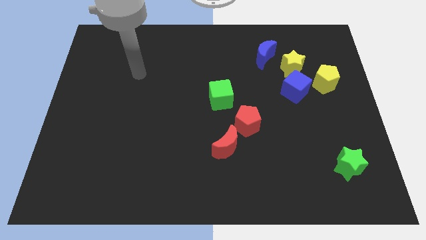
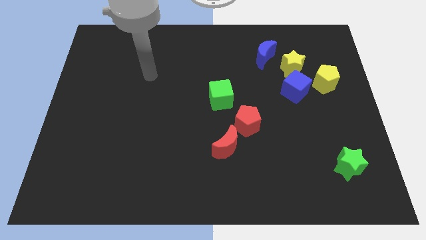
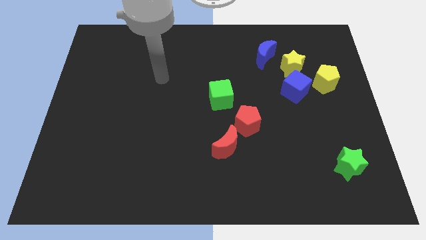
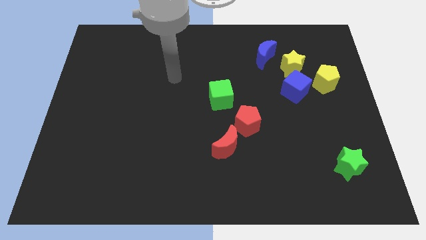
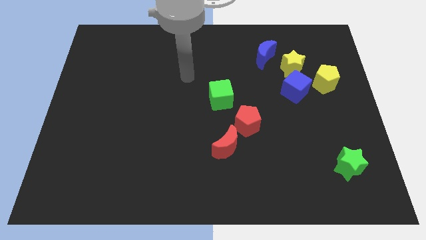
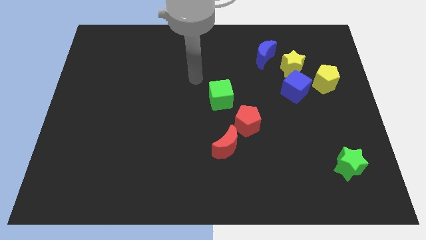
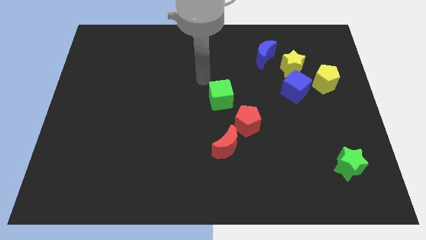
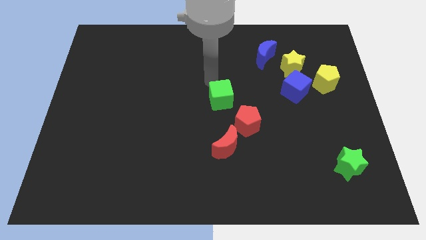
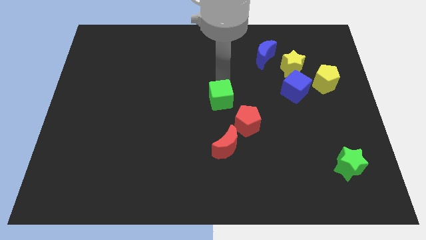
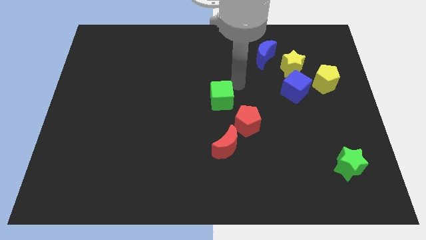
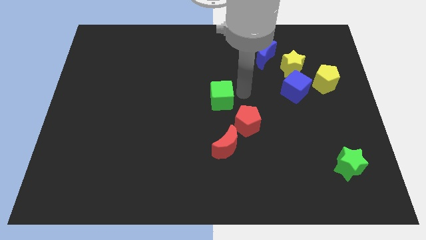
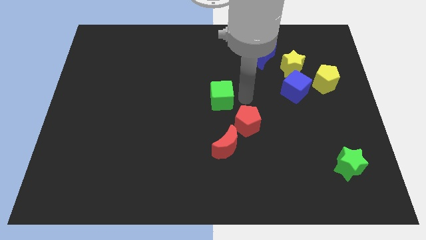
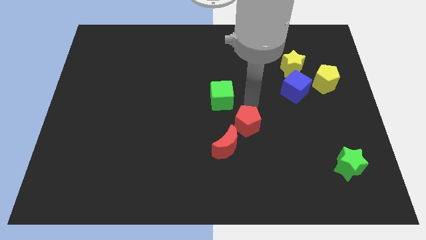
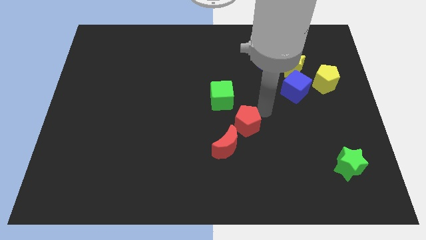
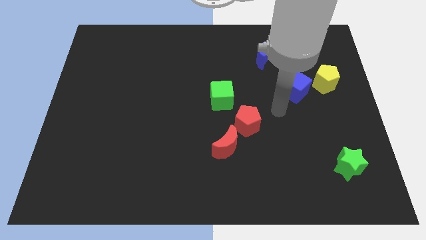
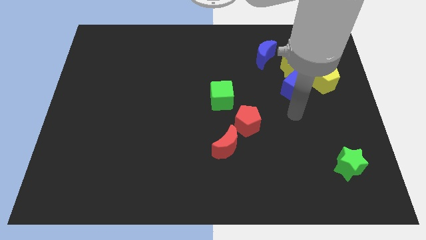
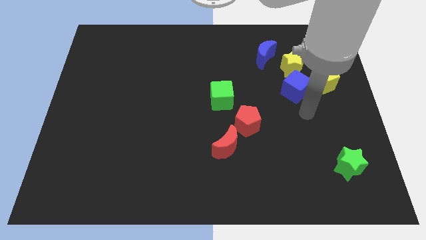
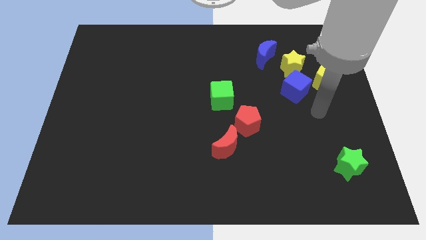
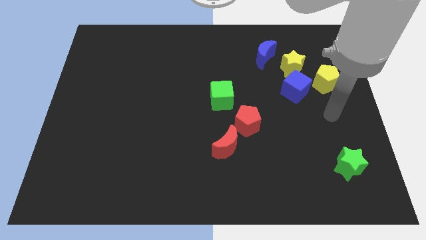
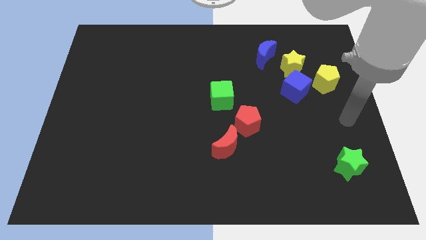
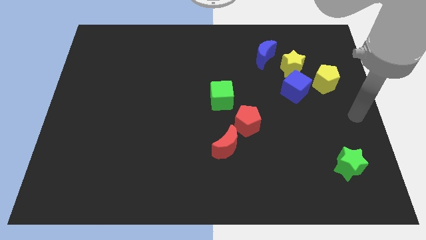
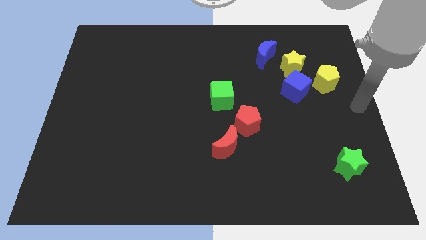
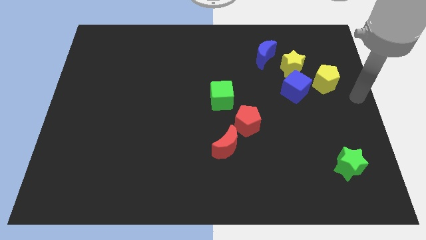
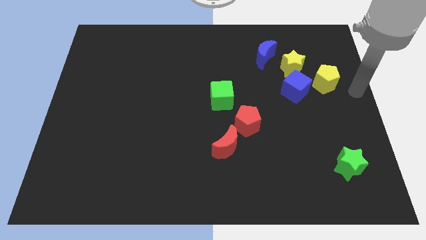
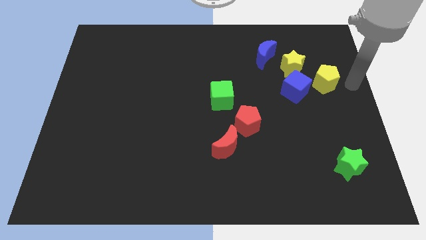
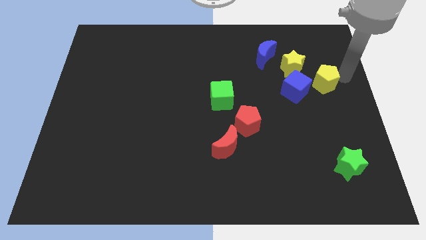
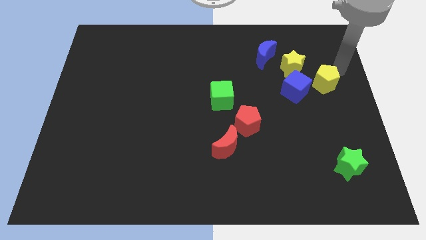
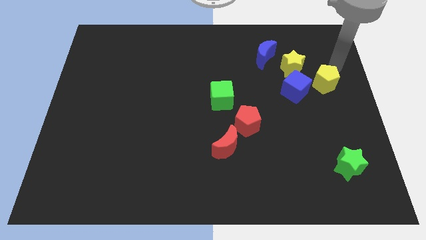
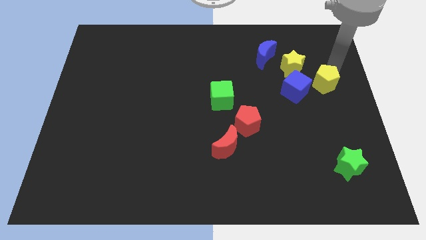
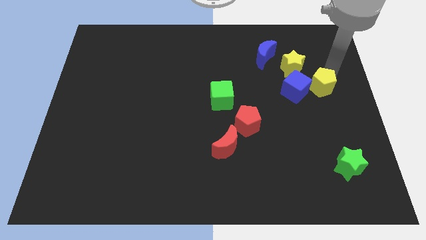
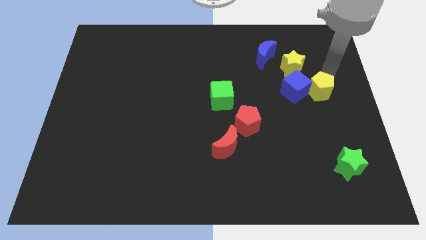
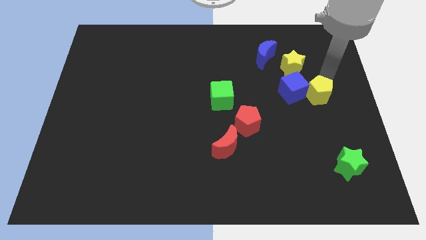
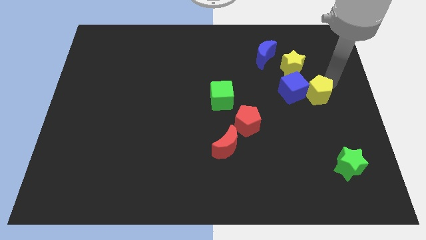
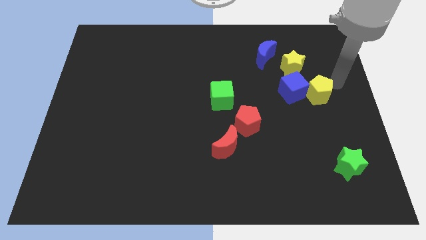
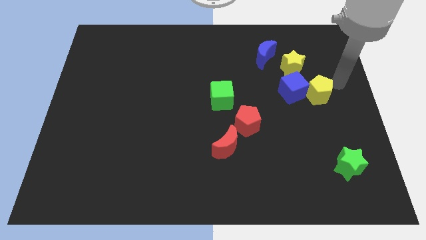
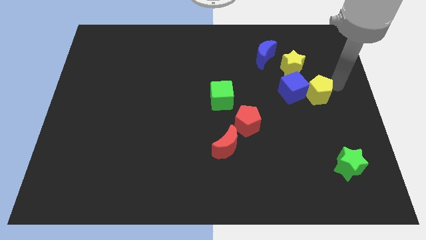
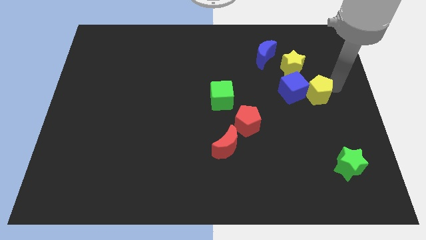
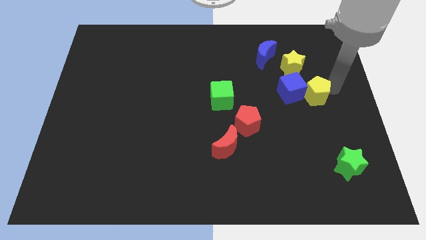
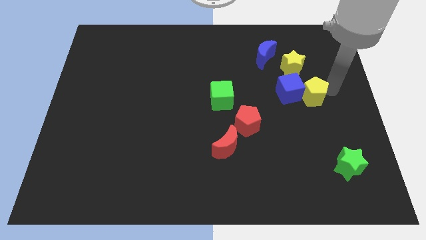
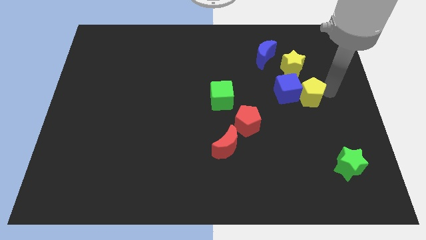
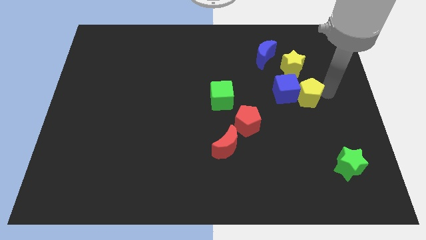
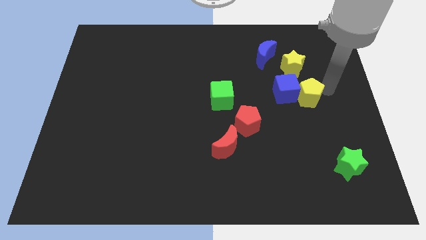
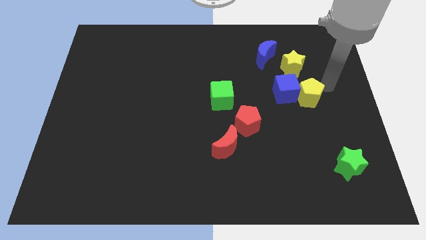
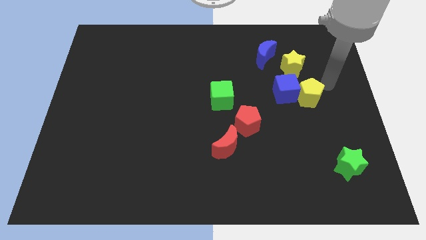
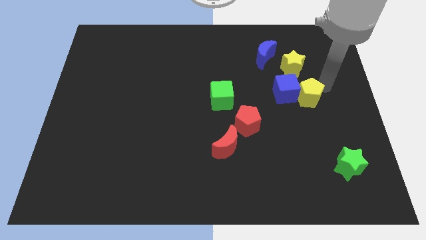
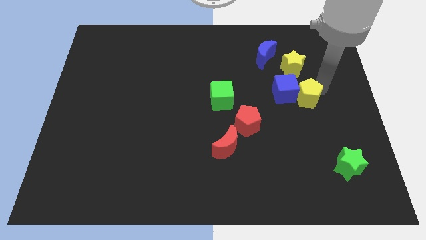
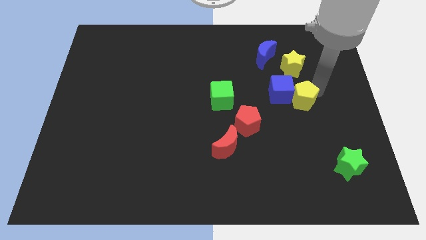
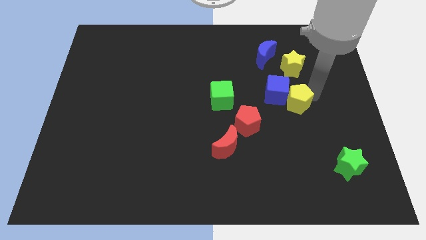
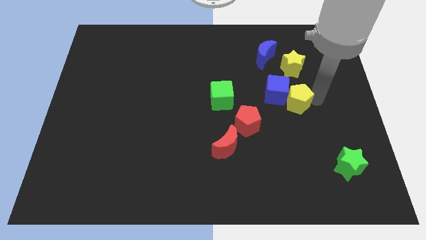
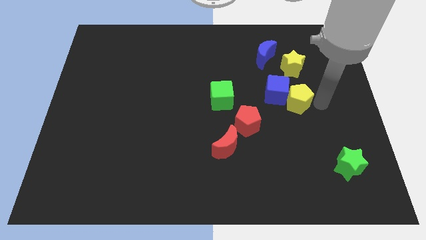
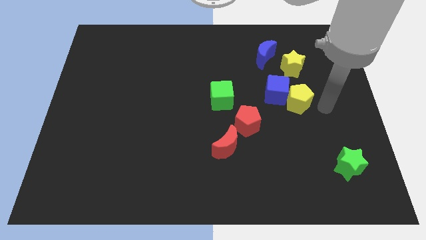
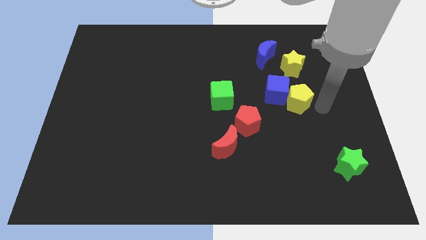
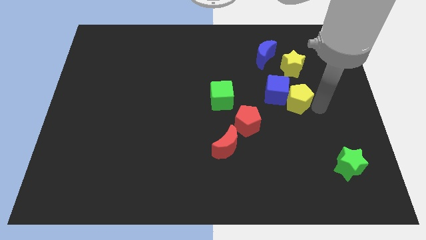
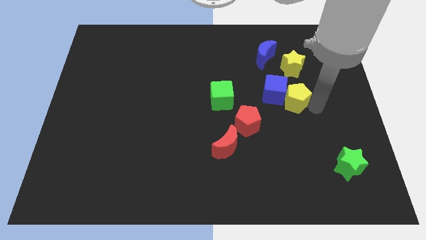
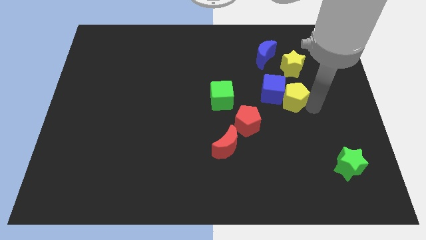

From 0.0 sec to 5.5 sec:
slightly slide the yellow pentagon to the left

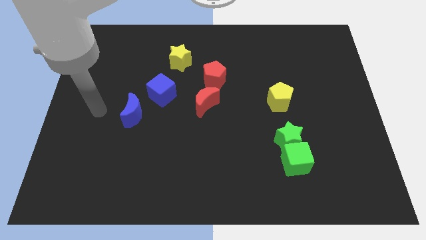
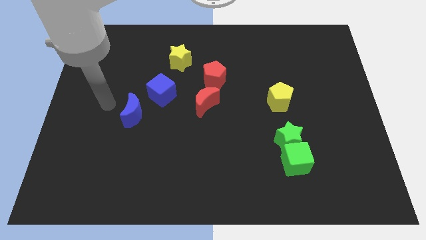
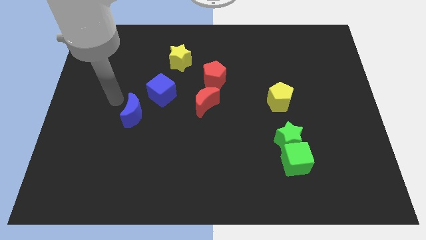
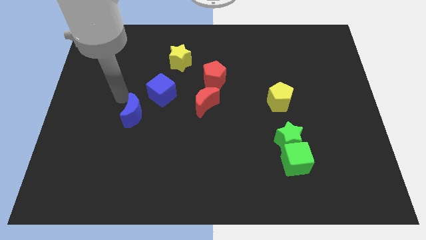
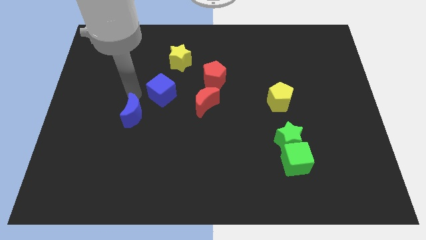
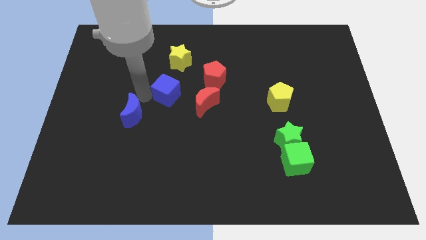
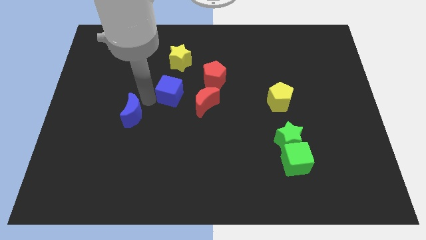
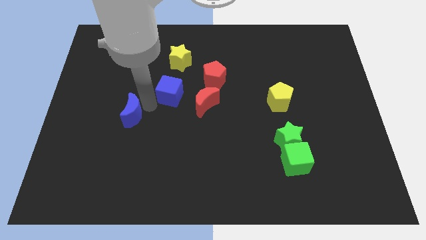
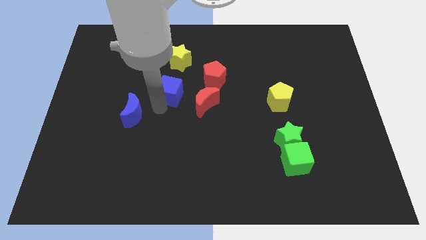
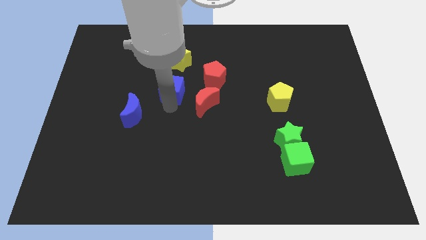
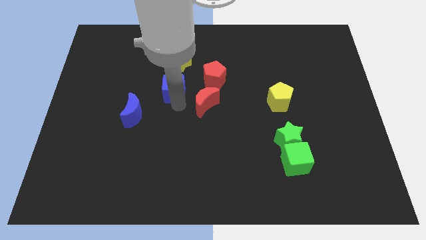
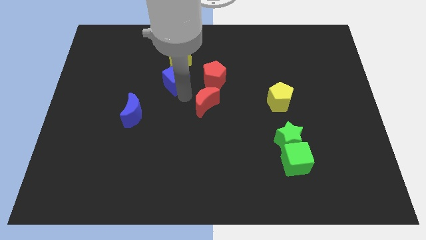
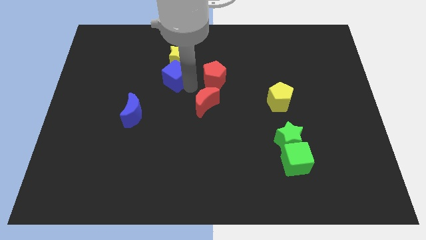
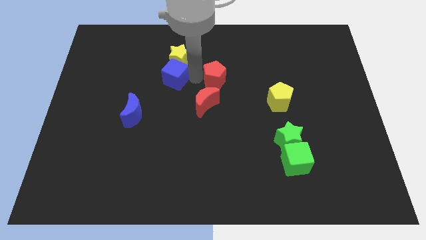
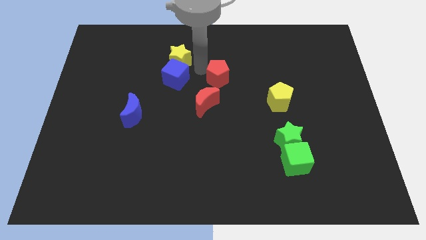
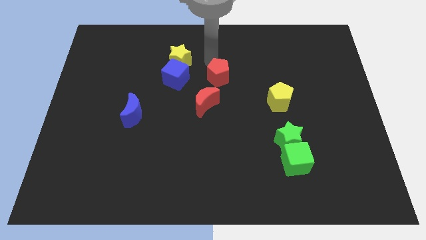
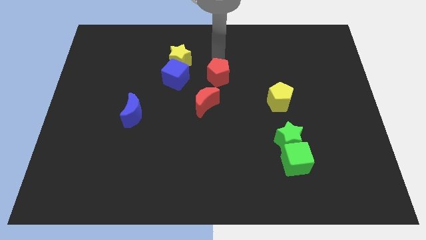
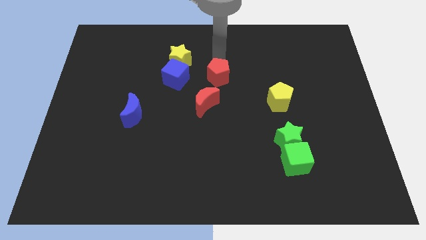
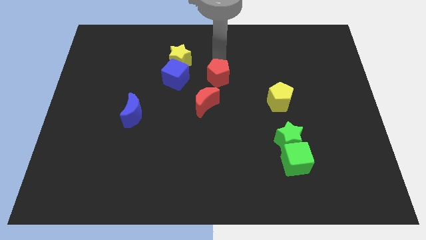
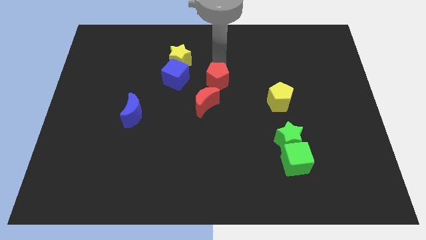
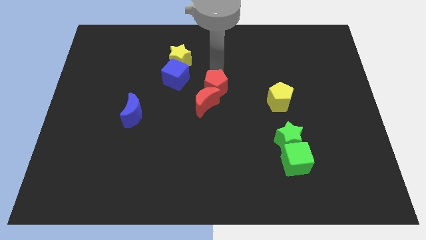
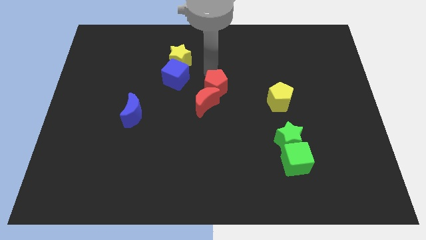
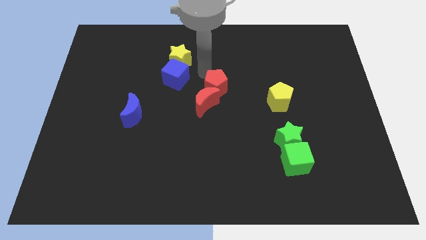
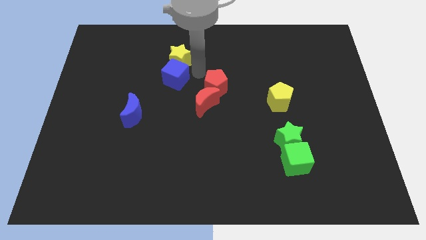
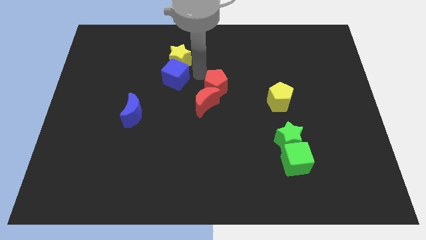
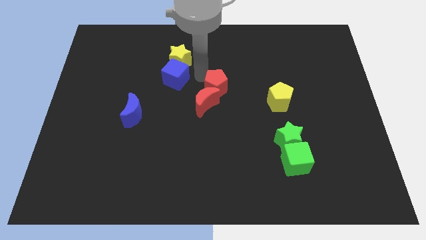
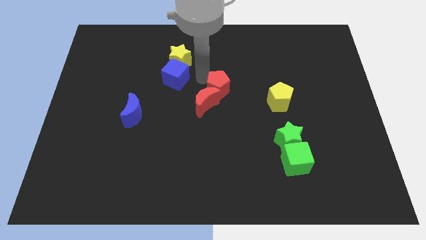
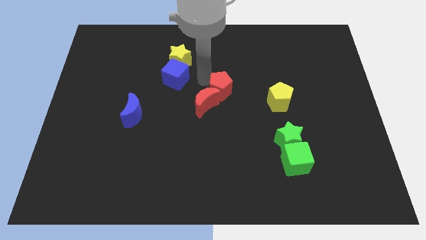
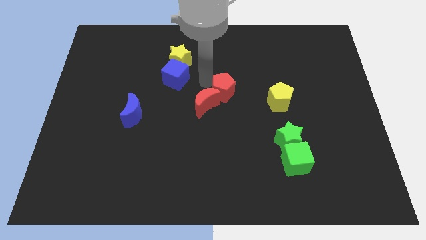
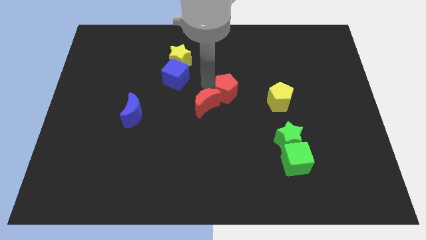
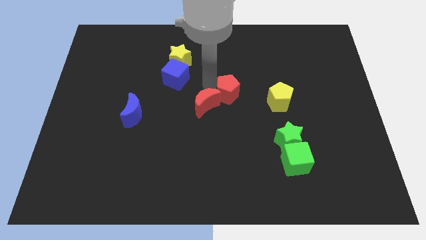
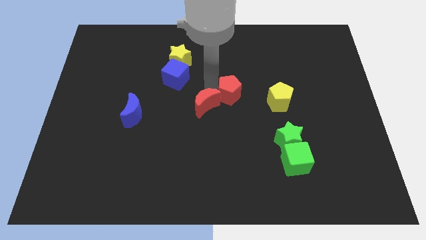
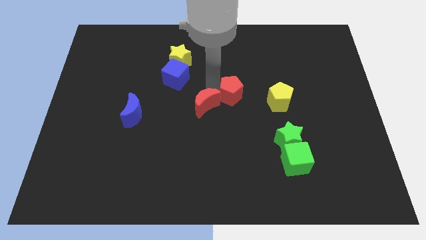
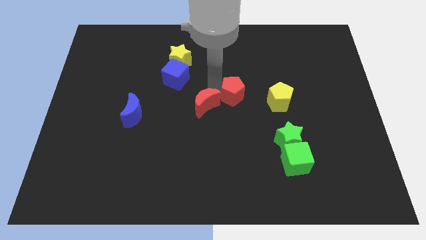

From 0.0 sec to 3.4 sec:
push the red pentagon a little downwards and right diagonally
